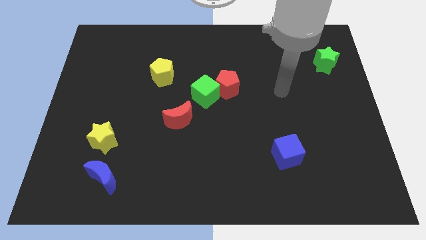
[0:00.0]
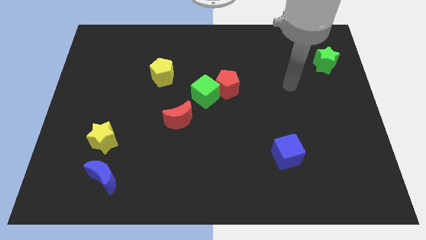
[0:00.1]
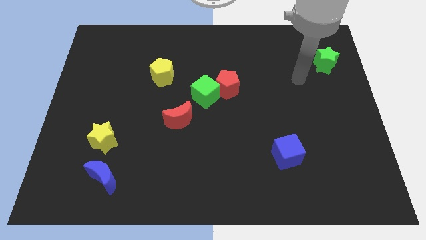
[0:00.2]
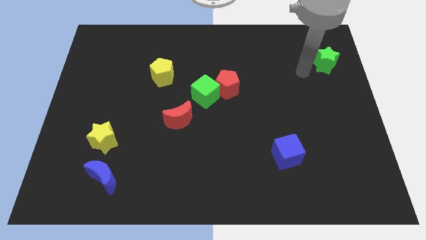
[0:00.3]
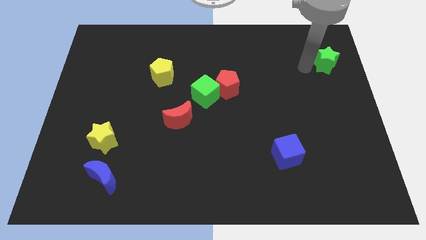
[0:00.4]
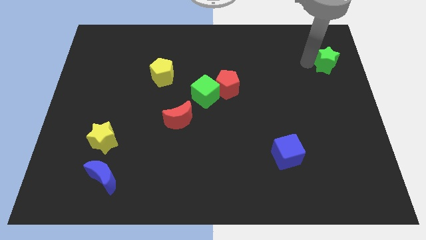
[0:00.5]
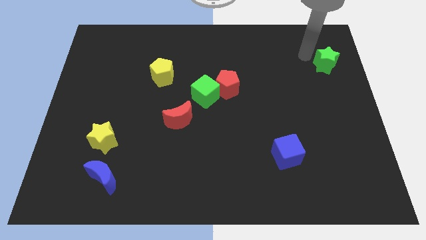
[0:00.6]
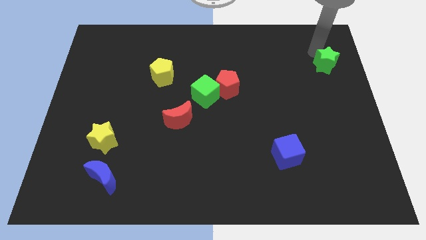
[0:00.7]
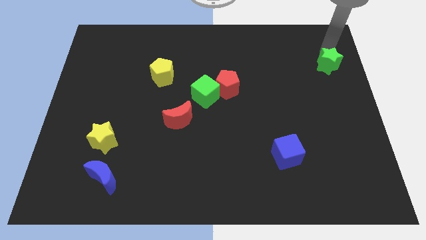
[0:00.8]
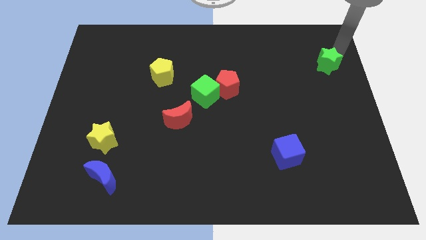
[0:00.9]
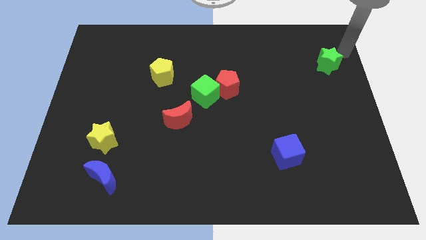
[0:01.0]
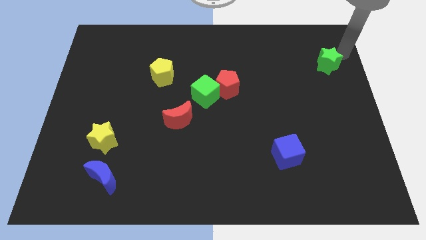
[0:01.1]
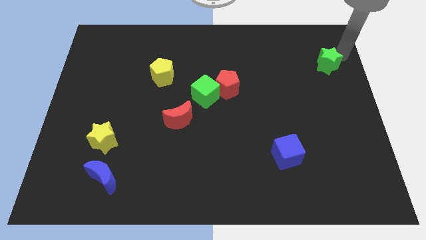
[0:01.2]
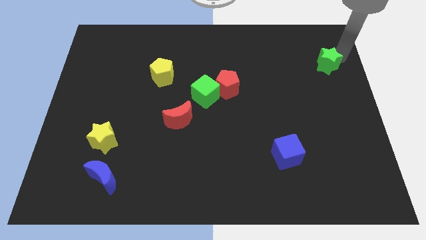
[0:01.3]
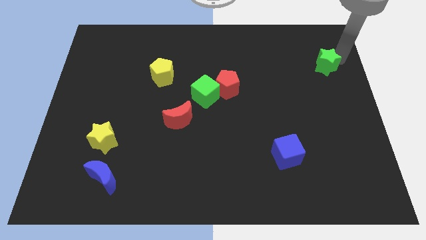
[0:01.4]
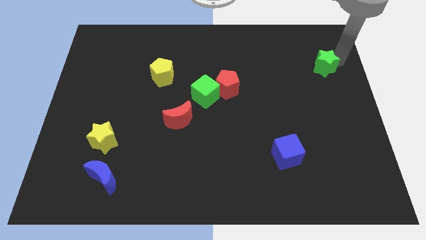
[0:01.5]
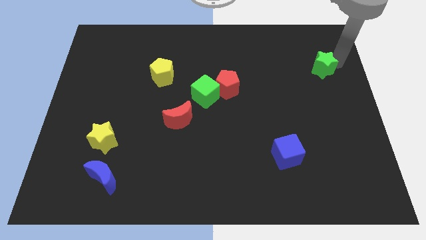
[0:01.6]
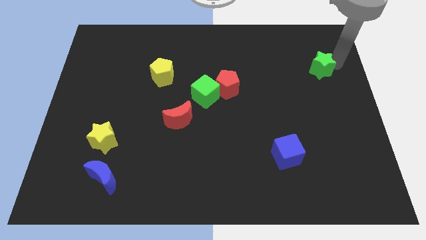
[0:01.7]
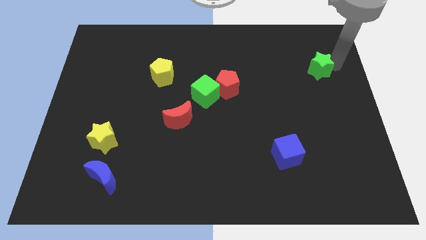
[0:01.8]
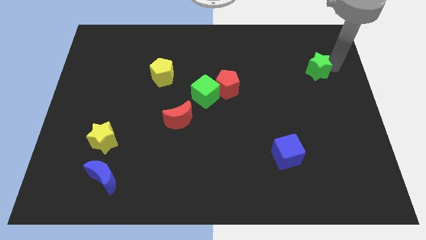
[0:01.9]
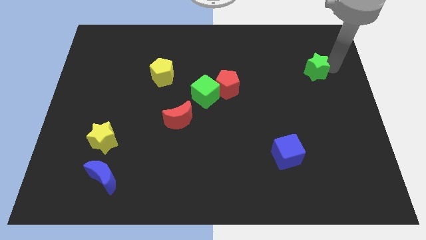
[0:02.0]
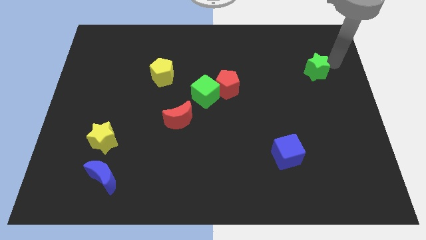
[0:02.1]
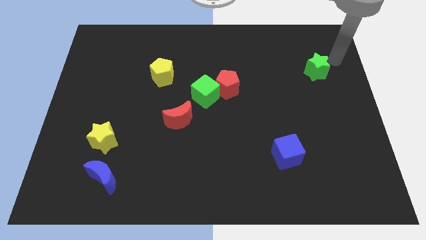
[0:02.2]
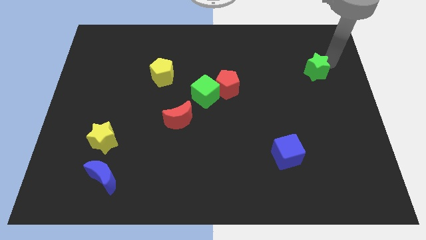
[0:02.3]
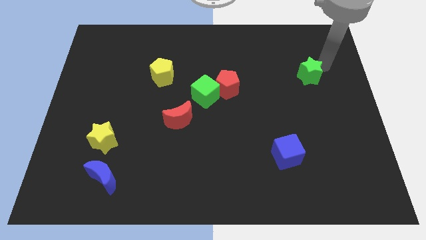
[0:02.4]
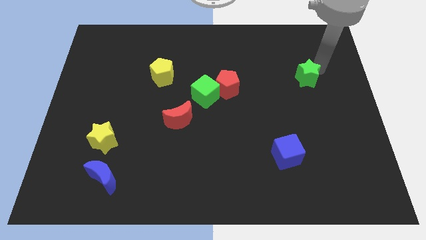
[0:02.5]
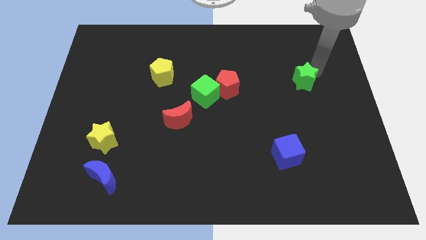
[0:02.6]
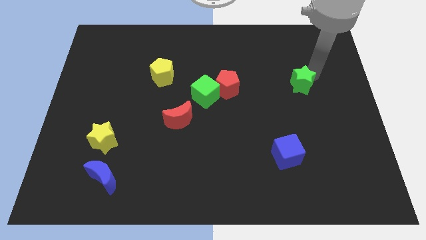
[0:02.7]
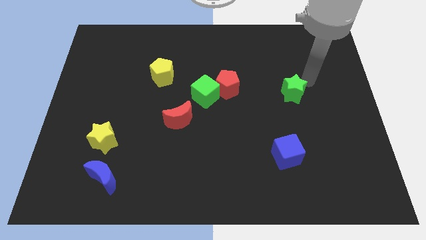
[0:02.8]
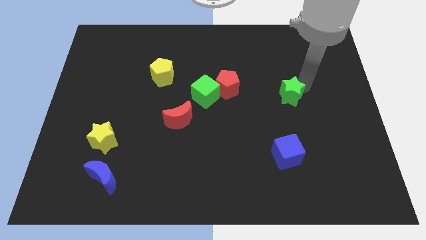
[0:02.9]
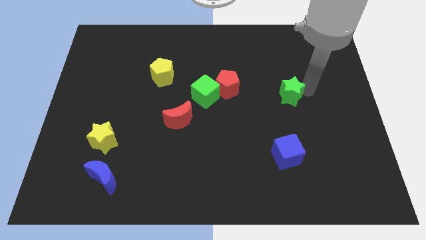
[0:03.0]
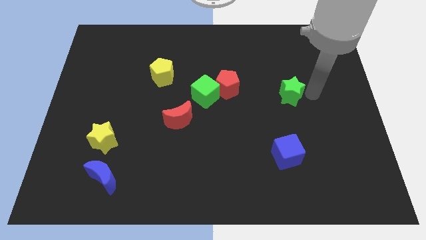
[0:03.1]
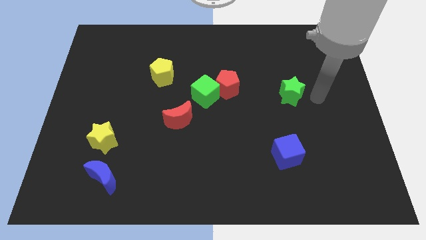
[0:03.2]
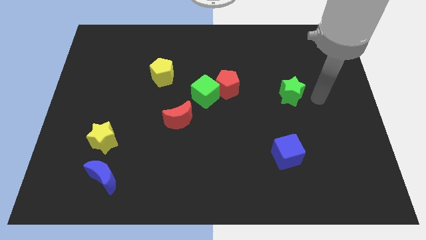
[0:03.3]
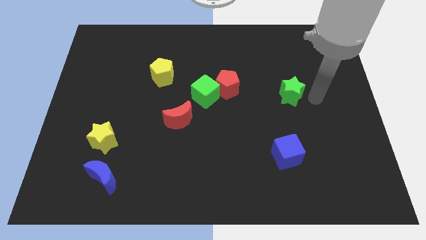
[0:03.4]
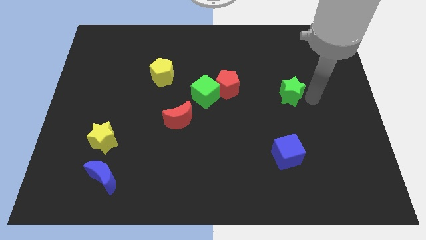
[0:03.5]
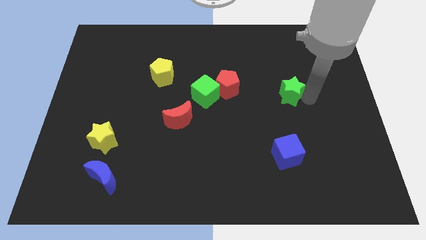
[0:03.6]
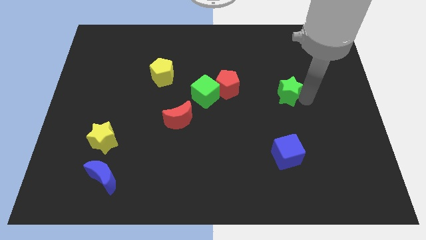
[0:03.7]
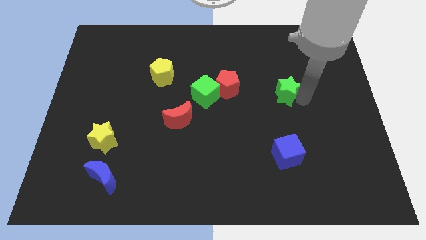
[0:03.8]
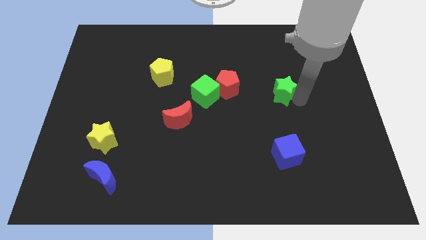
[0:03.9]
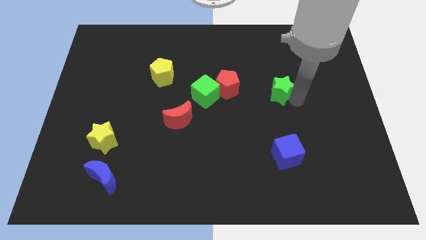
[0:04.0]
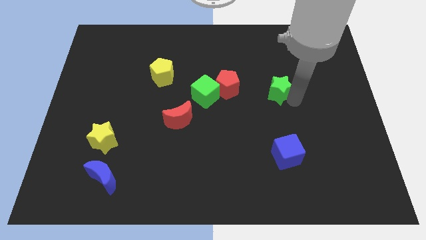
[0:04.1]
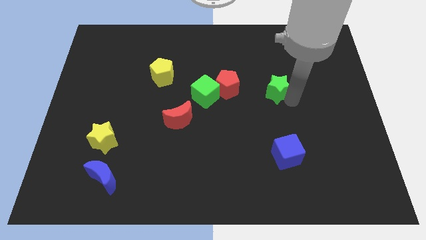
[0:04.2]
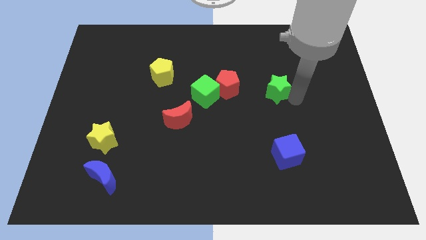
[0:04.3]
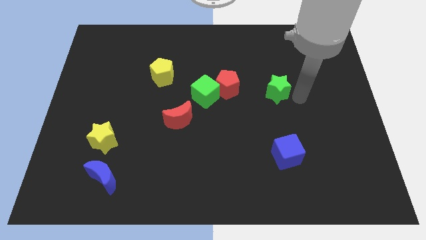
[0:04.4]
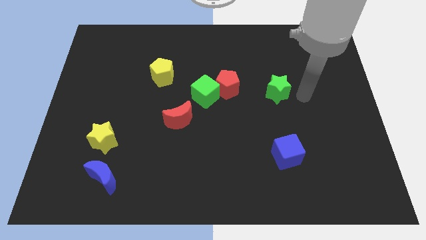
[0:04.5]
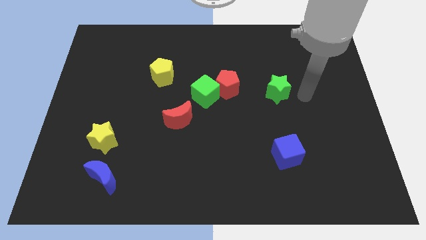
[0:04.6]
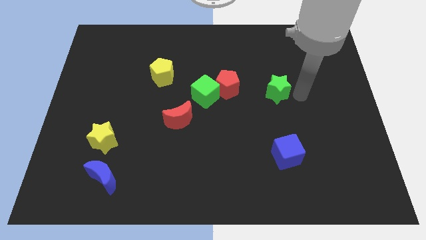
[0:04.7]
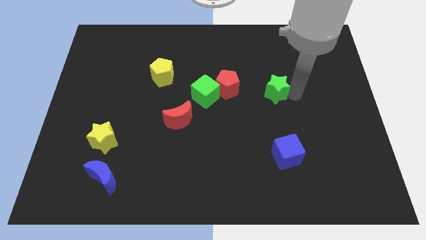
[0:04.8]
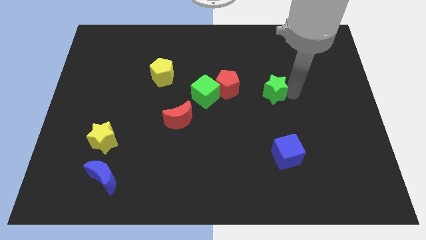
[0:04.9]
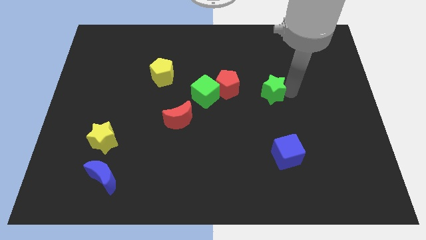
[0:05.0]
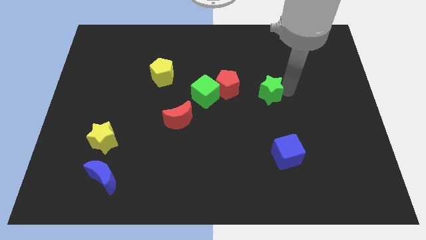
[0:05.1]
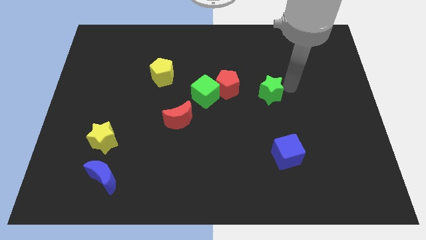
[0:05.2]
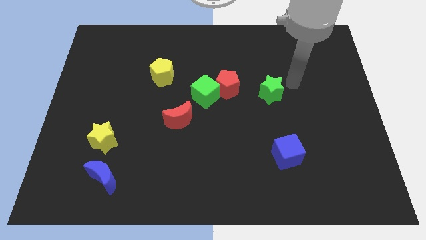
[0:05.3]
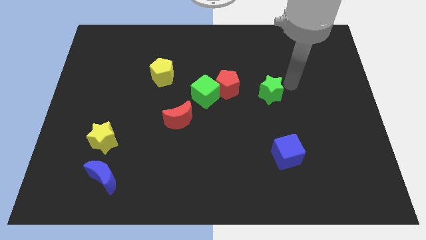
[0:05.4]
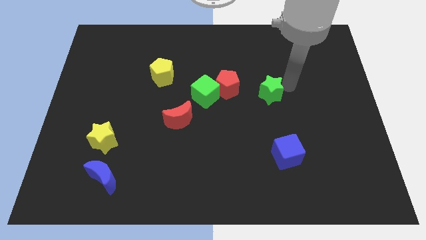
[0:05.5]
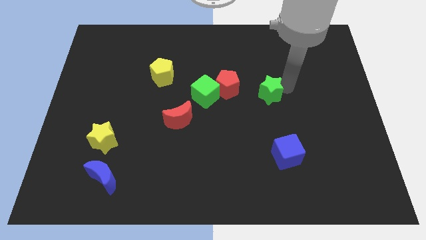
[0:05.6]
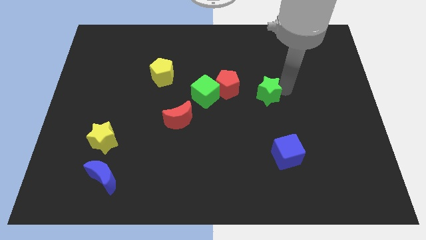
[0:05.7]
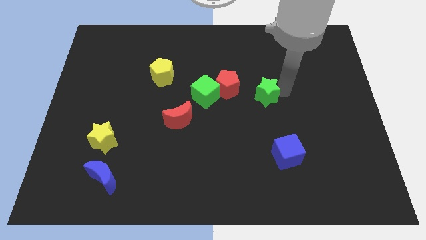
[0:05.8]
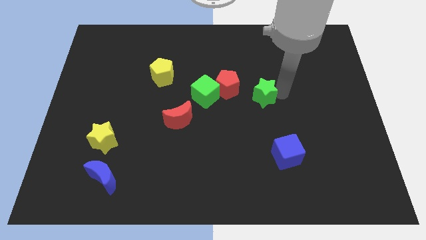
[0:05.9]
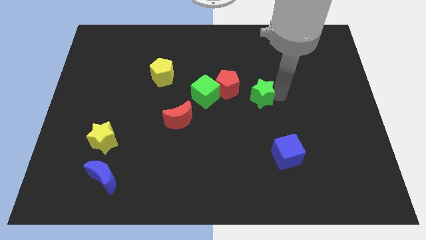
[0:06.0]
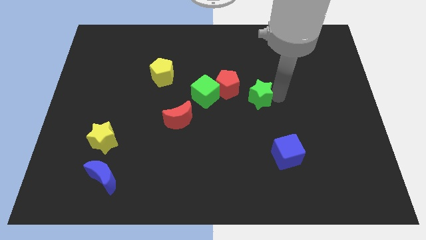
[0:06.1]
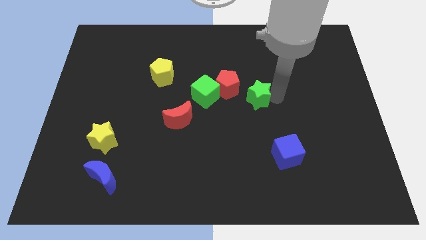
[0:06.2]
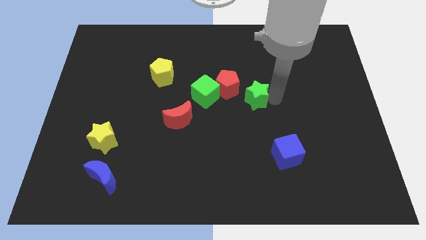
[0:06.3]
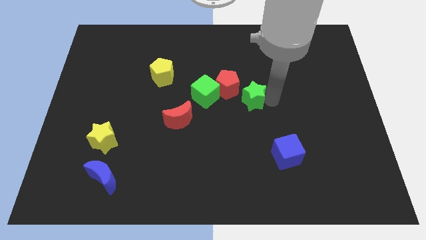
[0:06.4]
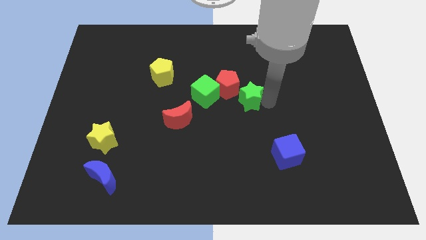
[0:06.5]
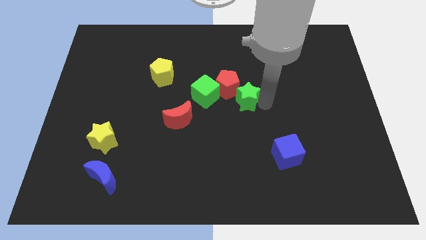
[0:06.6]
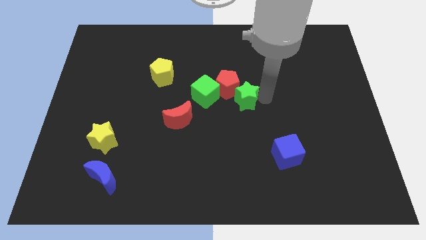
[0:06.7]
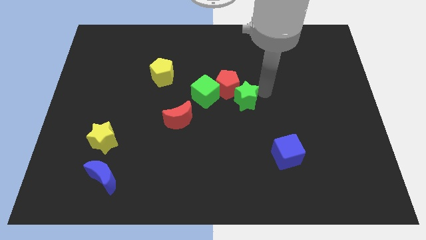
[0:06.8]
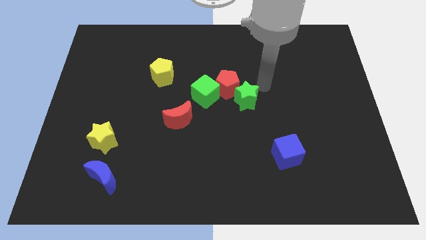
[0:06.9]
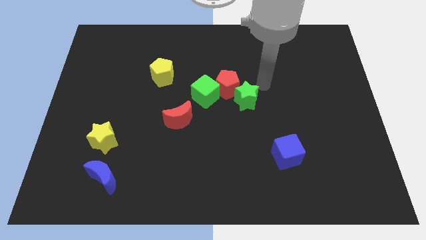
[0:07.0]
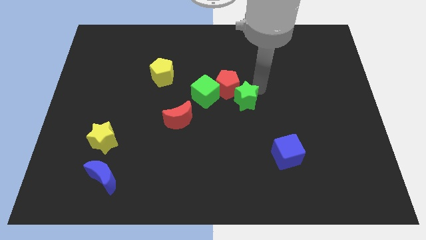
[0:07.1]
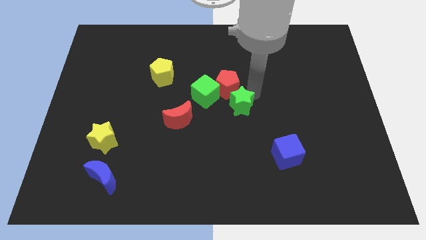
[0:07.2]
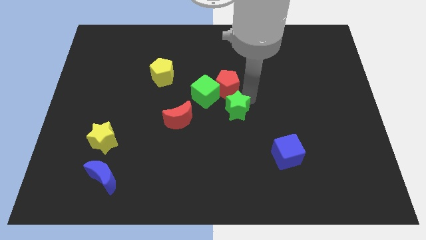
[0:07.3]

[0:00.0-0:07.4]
slide the green star just right of the red moon

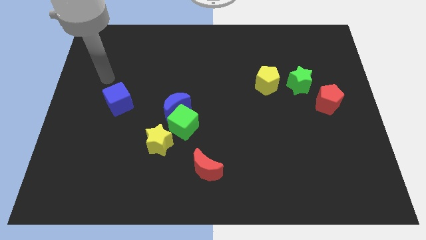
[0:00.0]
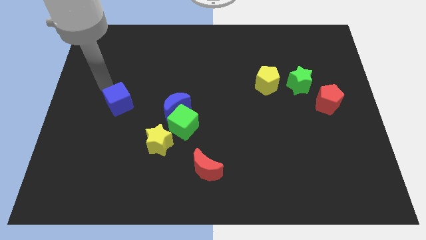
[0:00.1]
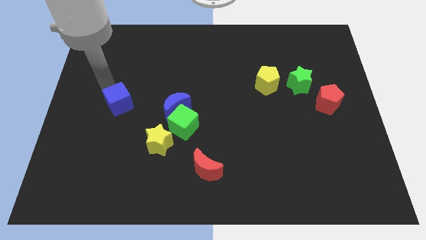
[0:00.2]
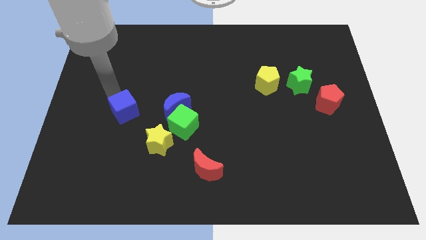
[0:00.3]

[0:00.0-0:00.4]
push the blue cube to the top left side of the yellow star

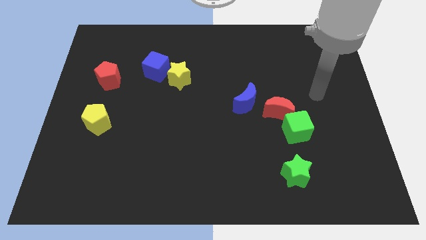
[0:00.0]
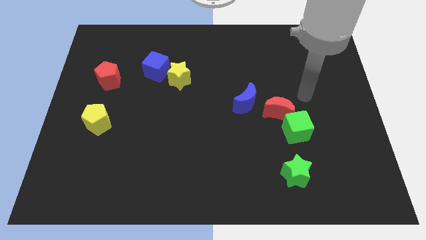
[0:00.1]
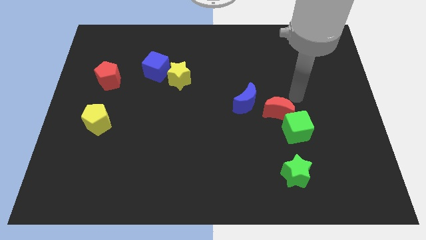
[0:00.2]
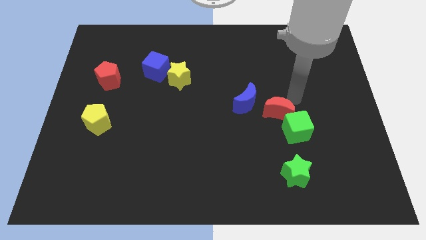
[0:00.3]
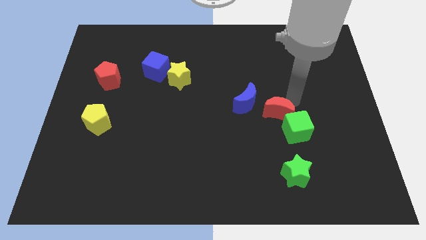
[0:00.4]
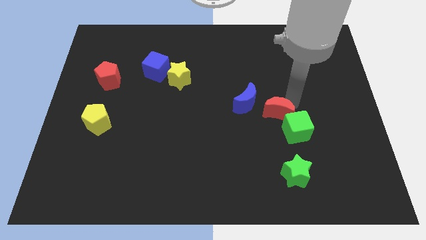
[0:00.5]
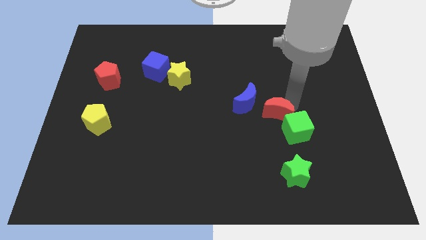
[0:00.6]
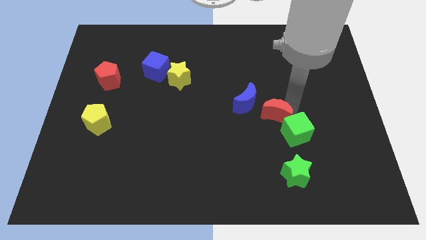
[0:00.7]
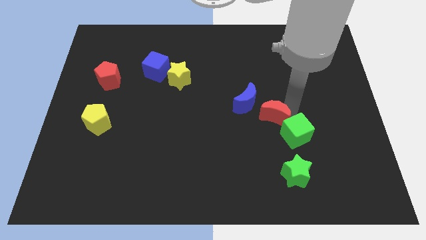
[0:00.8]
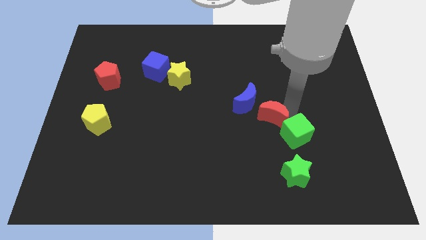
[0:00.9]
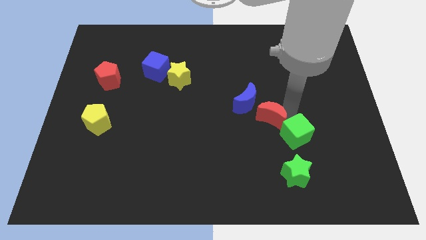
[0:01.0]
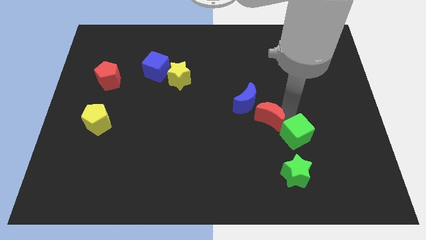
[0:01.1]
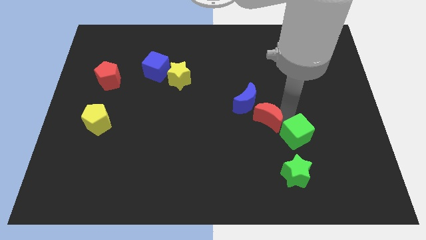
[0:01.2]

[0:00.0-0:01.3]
slide the red moon to the bottom side of the blue moon
